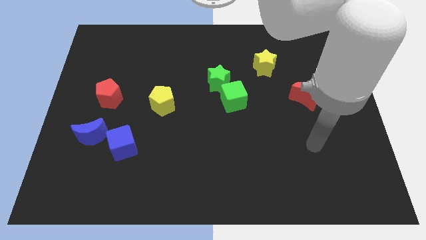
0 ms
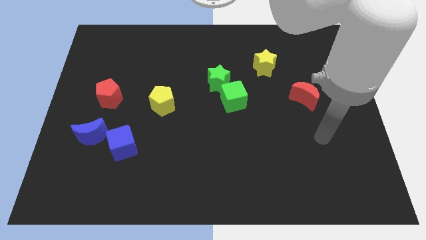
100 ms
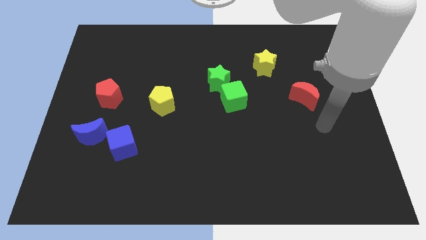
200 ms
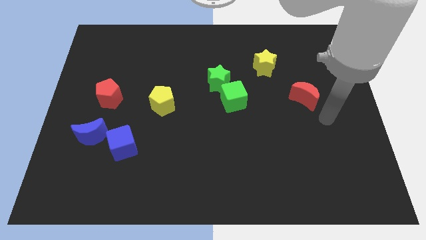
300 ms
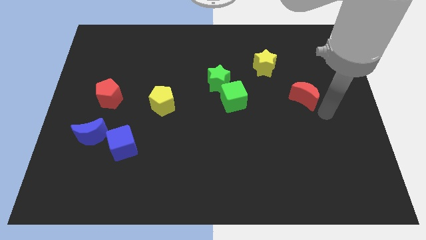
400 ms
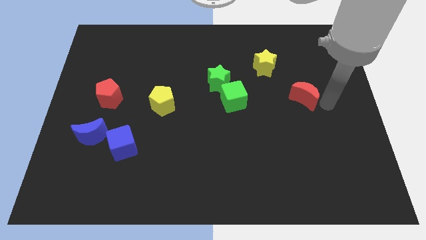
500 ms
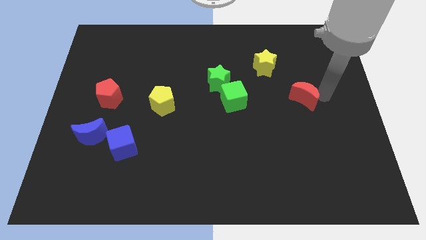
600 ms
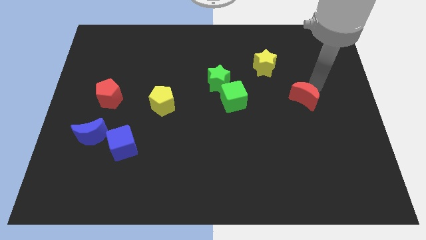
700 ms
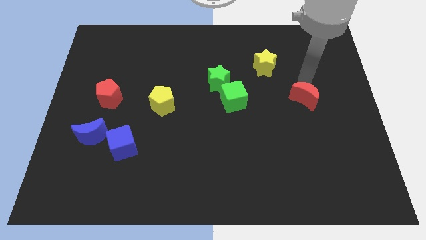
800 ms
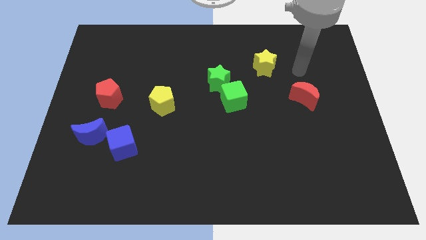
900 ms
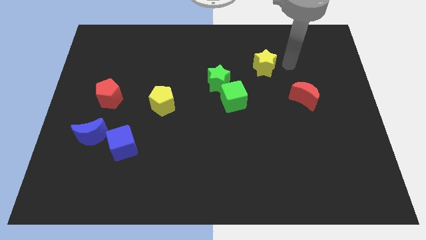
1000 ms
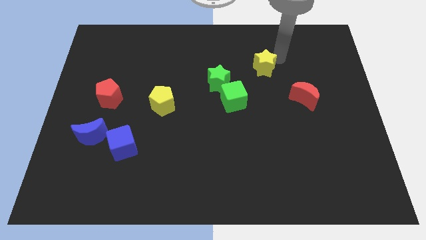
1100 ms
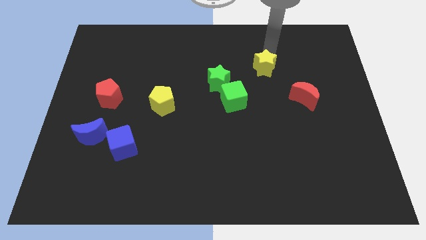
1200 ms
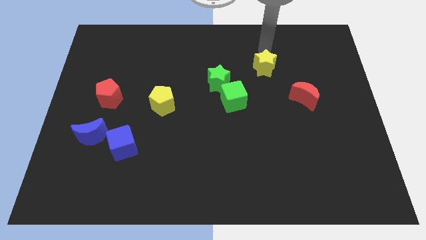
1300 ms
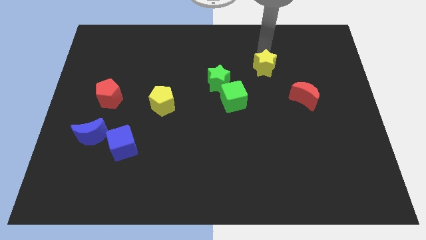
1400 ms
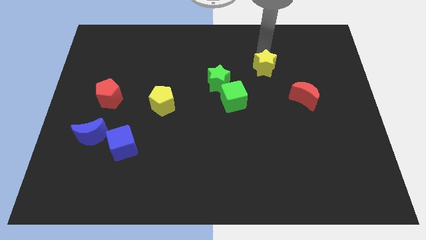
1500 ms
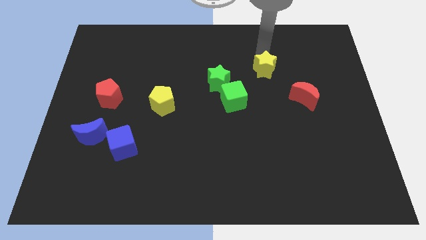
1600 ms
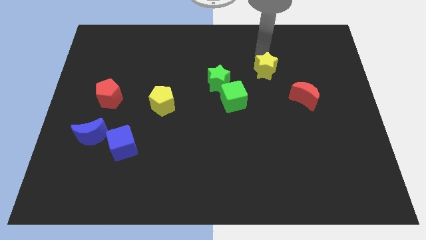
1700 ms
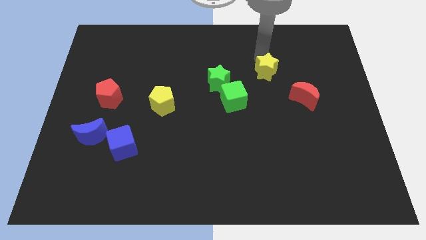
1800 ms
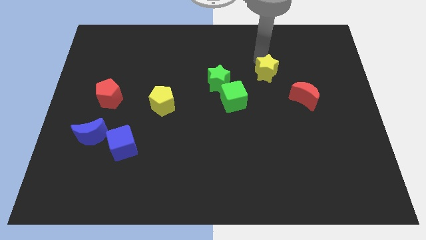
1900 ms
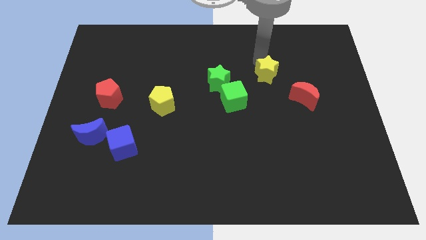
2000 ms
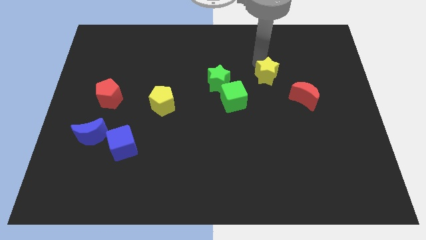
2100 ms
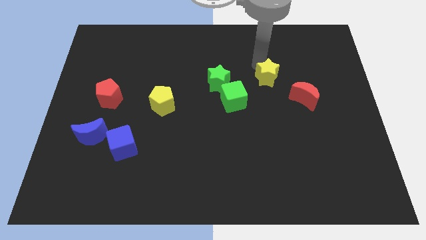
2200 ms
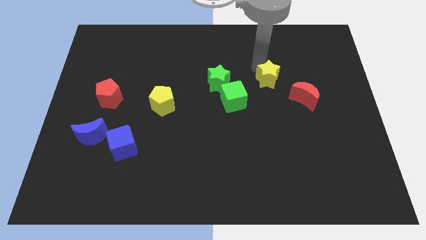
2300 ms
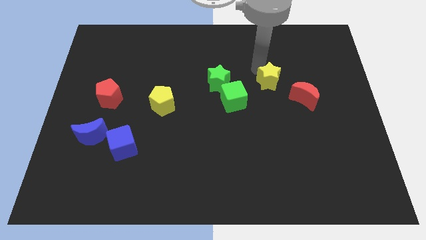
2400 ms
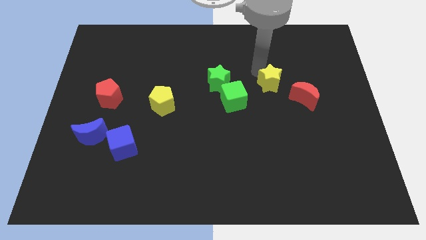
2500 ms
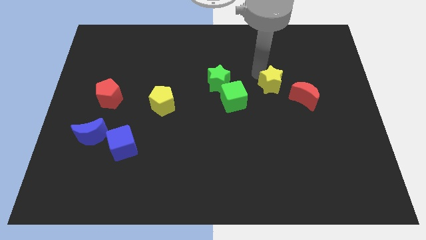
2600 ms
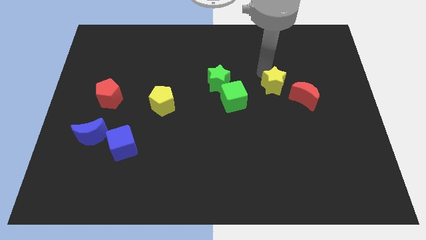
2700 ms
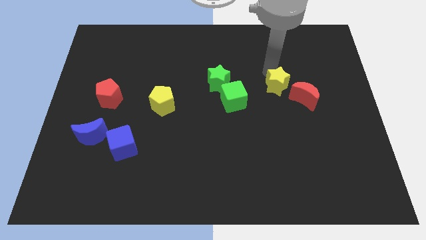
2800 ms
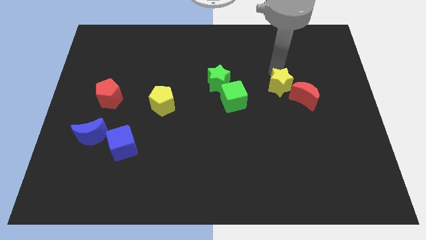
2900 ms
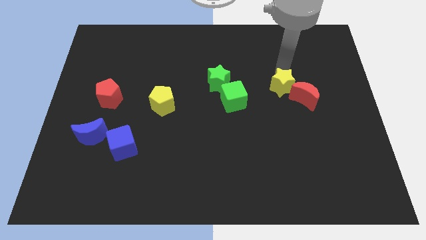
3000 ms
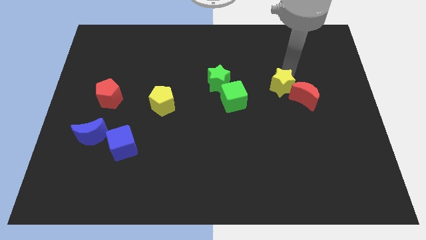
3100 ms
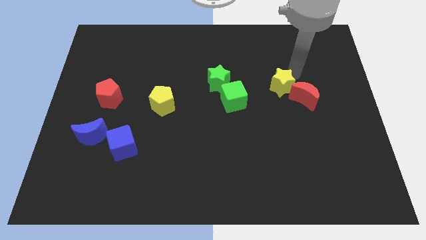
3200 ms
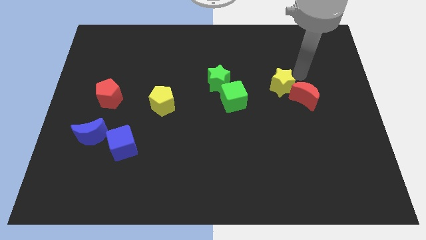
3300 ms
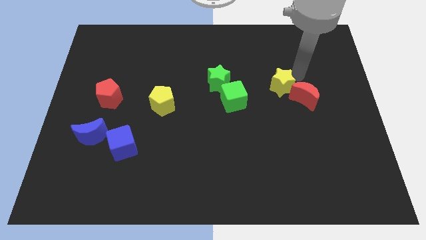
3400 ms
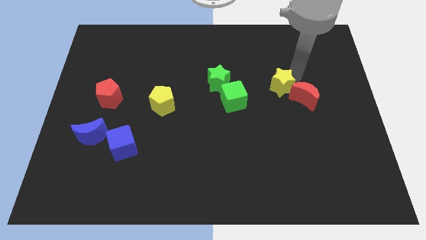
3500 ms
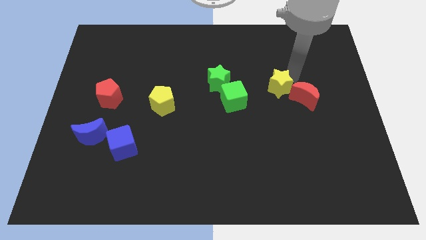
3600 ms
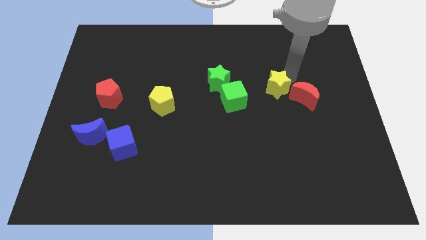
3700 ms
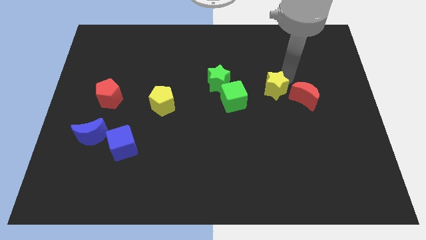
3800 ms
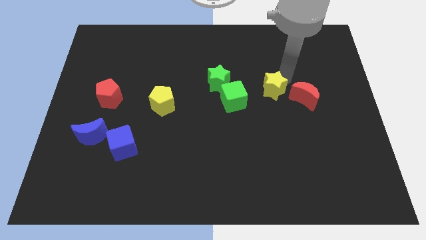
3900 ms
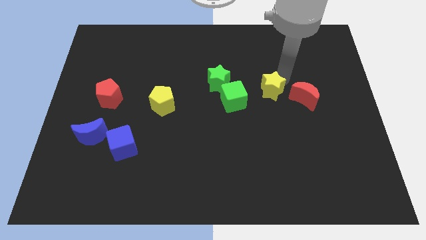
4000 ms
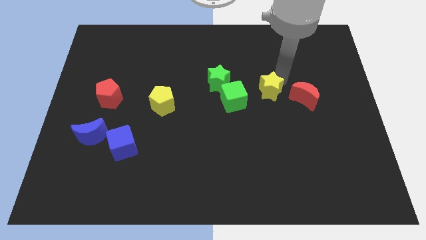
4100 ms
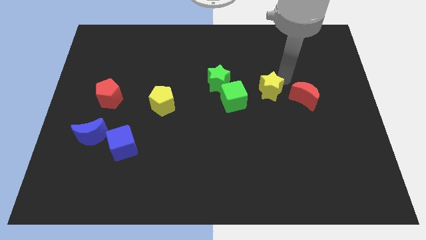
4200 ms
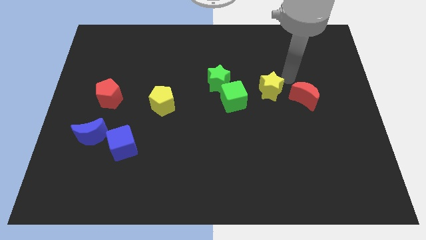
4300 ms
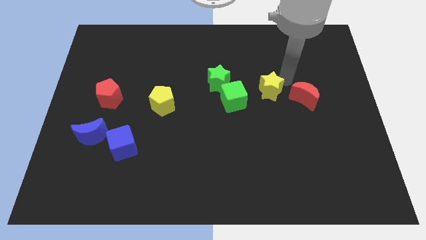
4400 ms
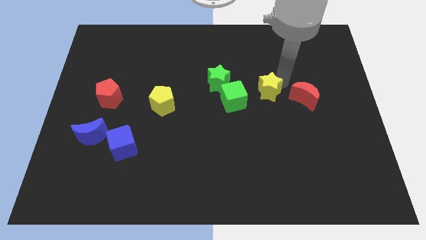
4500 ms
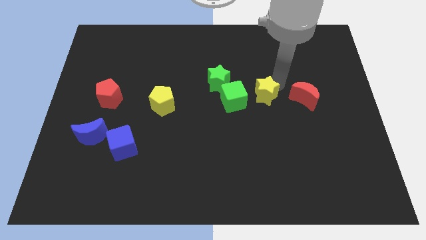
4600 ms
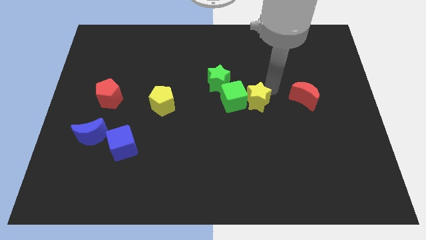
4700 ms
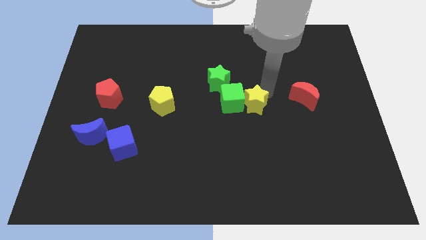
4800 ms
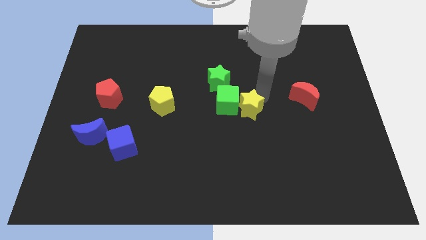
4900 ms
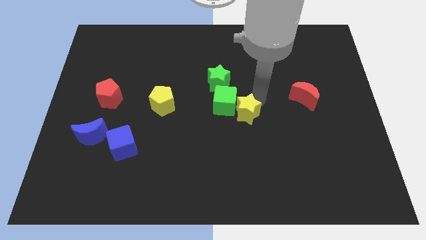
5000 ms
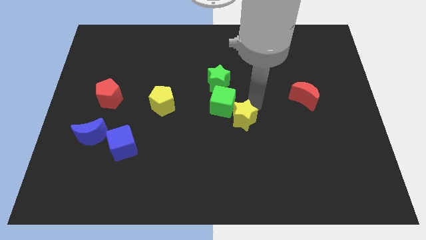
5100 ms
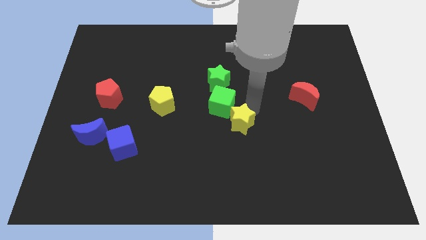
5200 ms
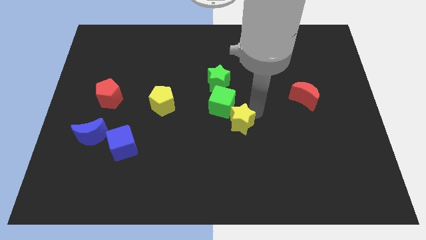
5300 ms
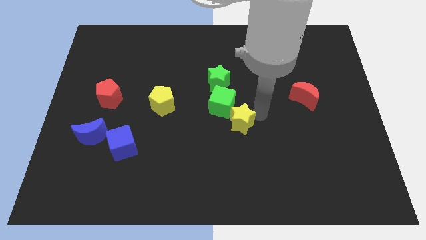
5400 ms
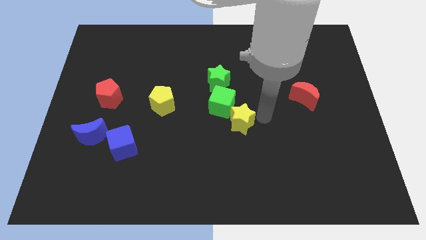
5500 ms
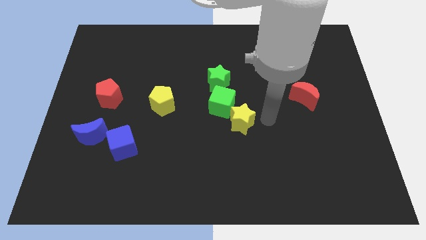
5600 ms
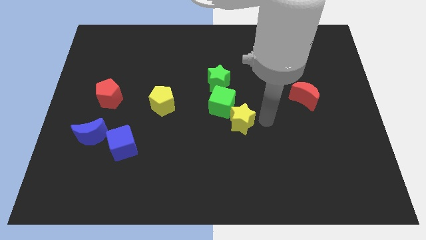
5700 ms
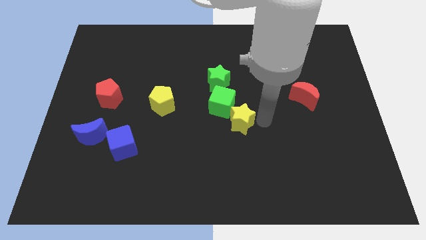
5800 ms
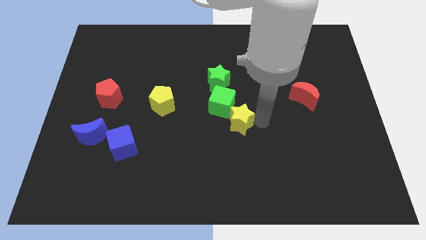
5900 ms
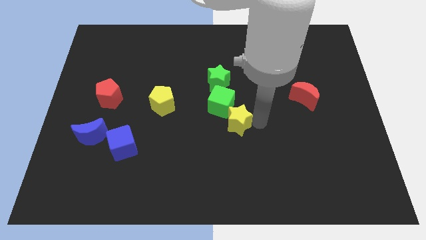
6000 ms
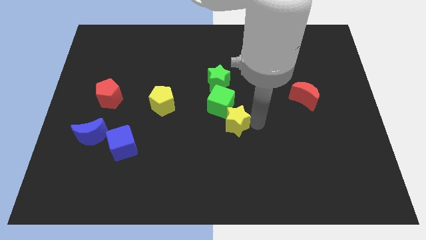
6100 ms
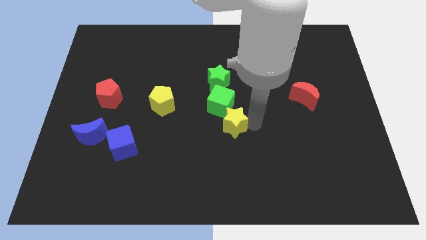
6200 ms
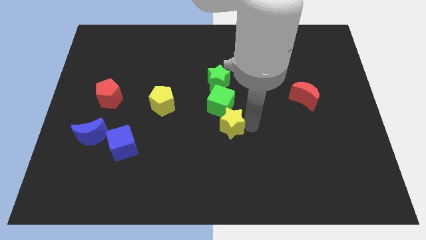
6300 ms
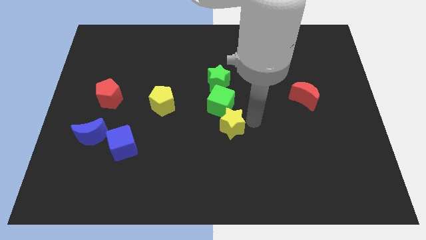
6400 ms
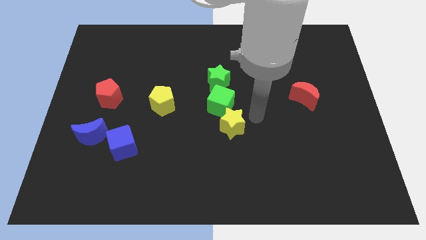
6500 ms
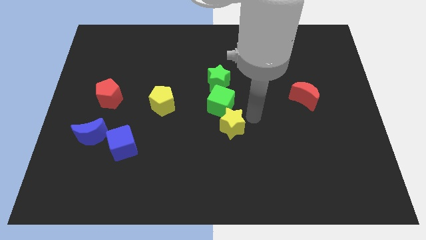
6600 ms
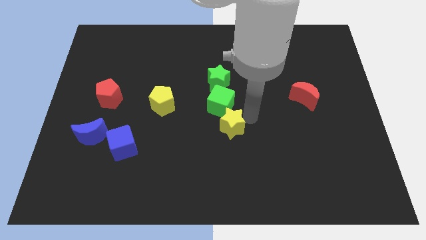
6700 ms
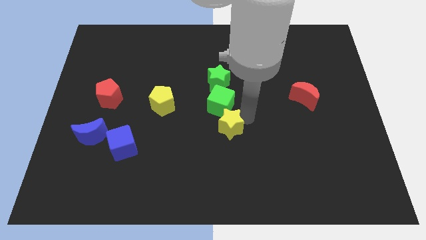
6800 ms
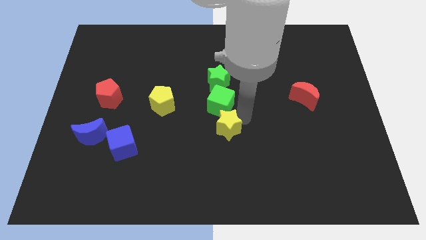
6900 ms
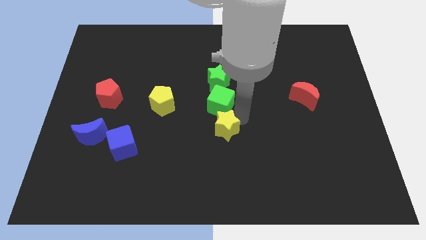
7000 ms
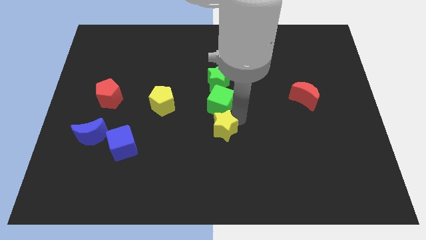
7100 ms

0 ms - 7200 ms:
push the yellow star diagonally down and left

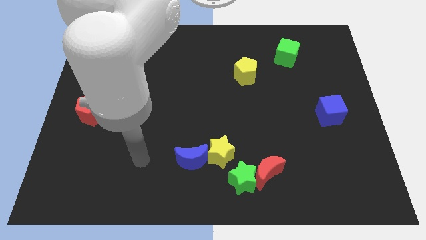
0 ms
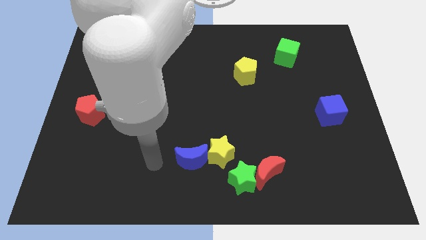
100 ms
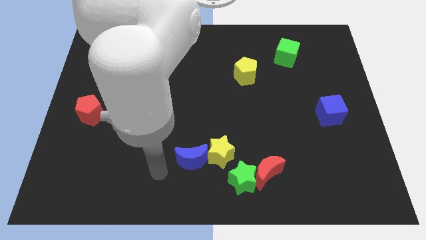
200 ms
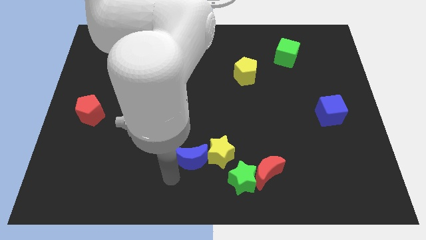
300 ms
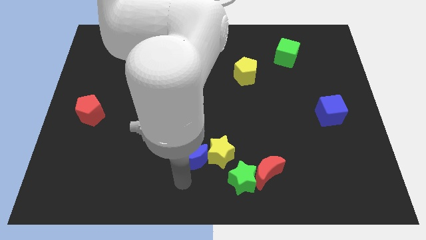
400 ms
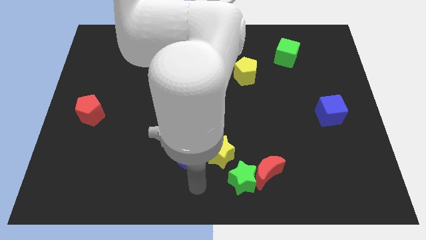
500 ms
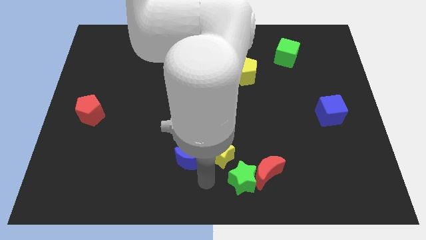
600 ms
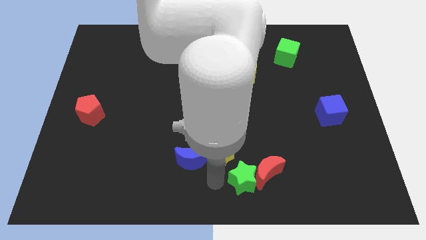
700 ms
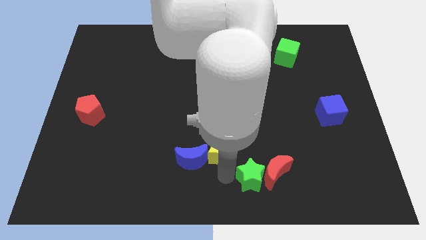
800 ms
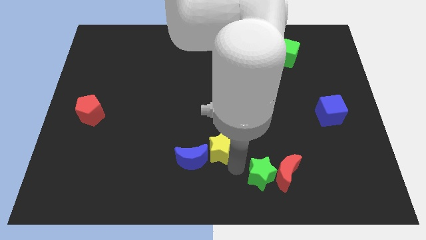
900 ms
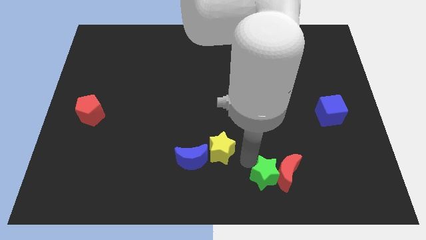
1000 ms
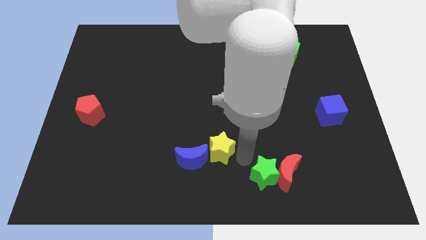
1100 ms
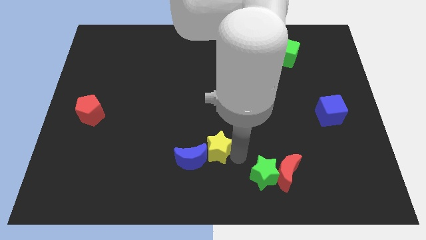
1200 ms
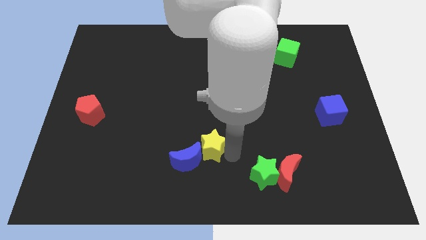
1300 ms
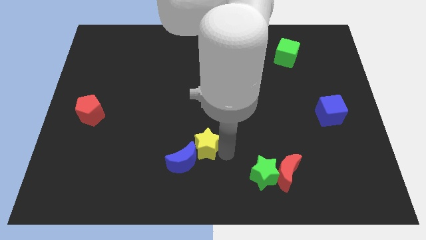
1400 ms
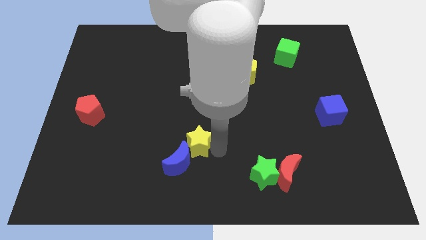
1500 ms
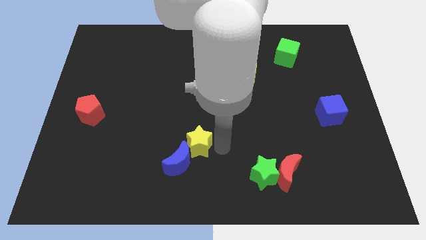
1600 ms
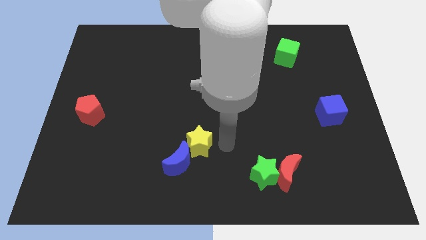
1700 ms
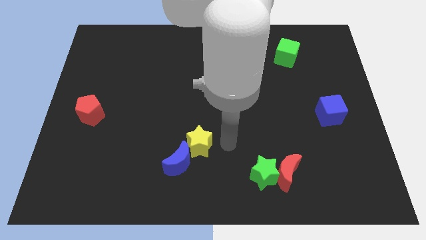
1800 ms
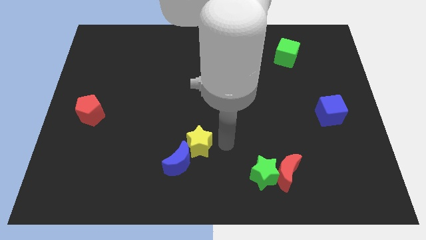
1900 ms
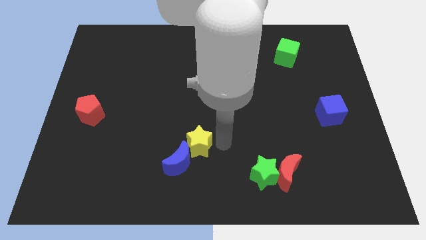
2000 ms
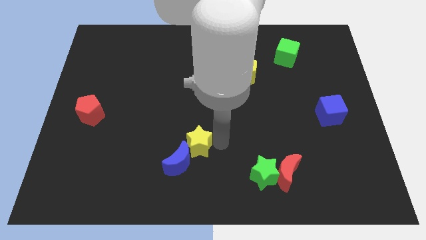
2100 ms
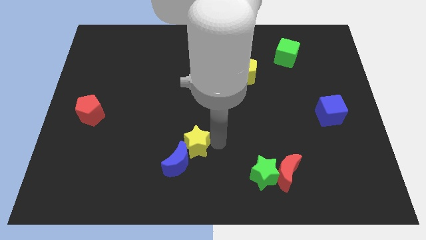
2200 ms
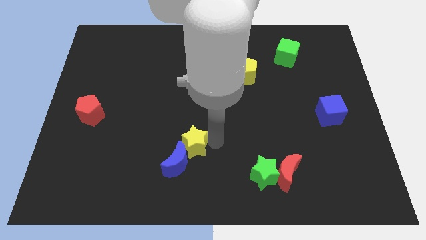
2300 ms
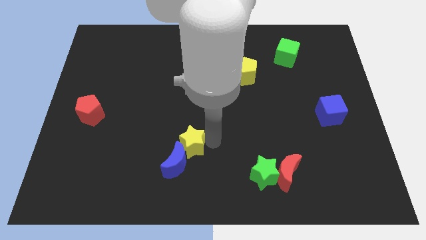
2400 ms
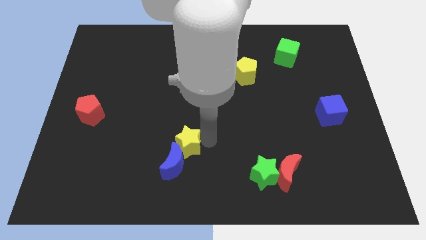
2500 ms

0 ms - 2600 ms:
slightly move the yellow star to the left
